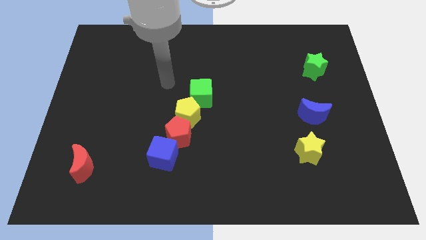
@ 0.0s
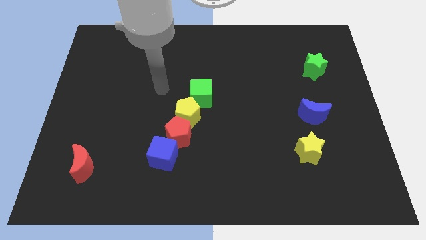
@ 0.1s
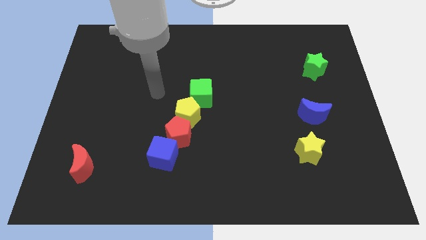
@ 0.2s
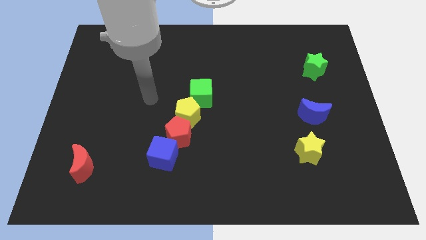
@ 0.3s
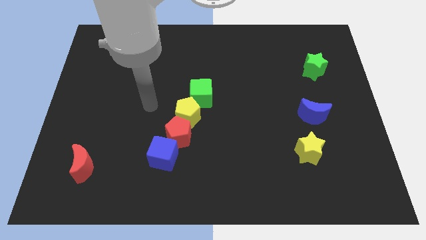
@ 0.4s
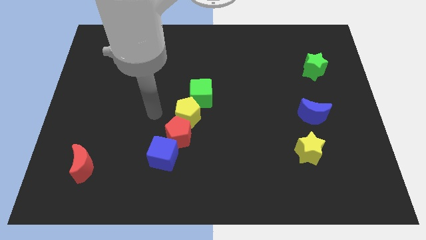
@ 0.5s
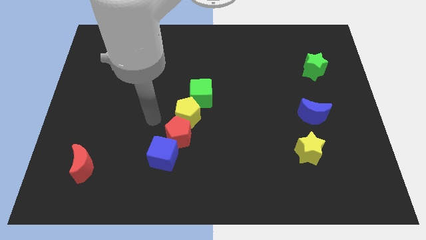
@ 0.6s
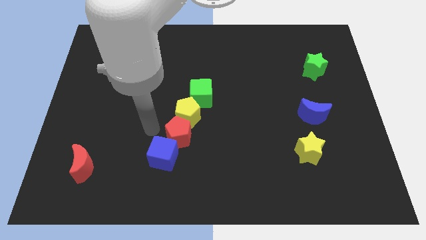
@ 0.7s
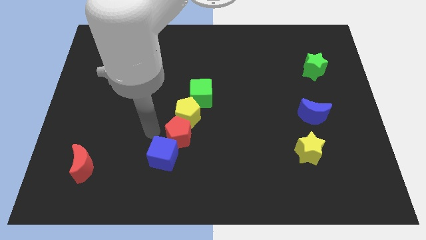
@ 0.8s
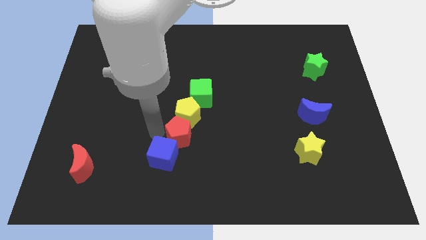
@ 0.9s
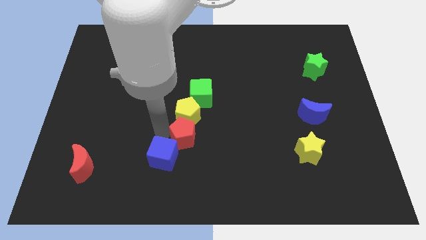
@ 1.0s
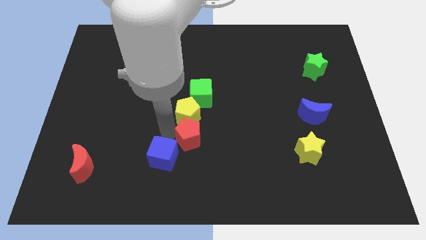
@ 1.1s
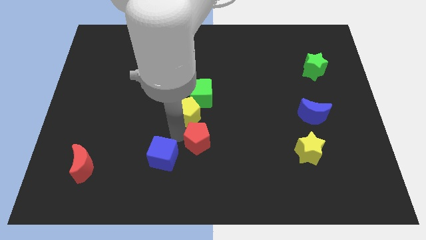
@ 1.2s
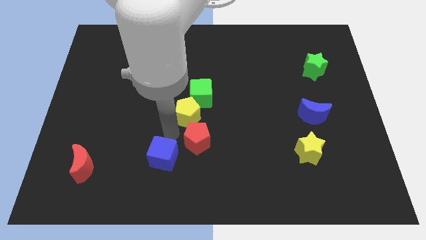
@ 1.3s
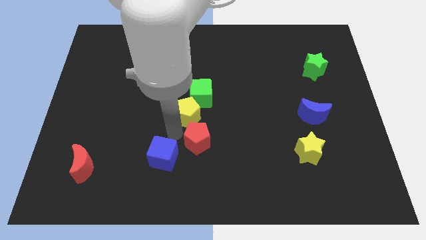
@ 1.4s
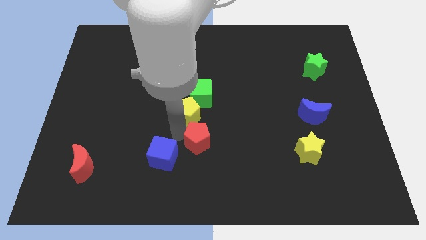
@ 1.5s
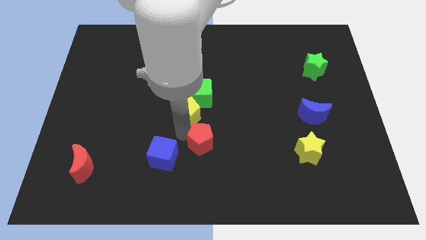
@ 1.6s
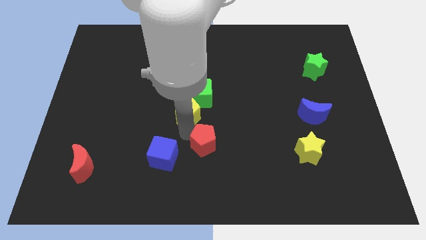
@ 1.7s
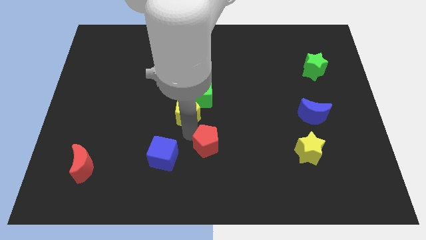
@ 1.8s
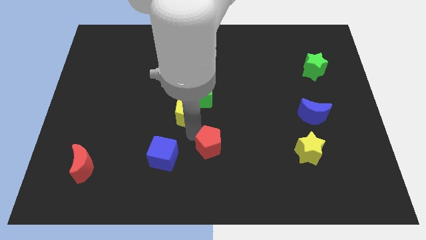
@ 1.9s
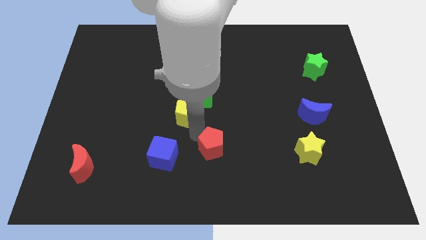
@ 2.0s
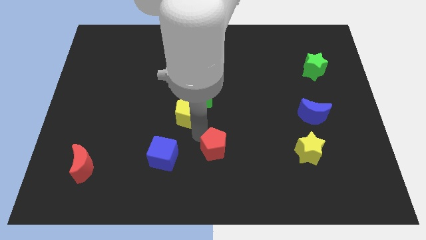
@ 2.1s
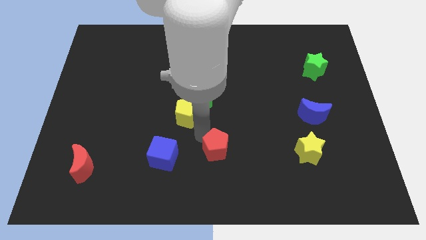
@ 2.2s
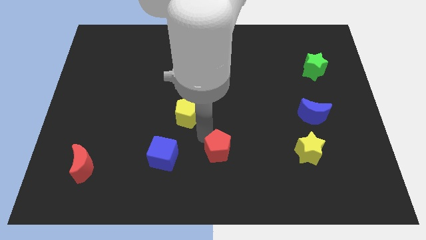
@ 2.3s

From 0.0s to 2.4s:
pull the red pentagon apart from the yellow pentagon and blue cube

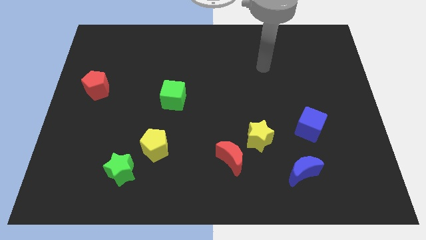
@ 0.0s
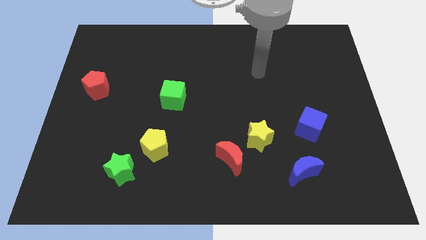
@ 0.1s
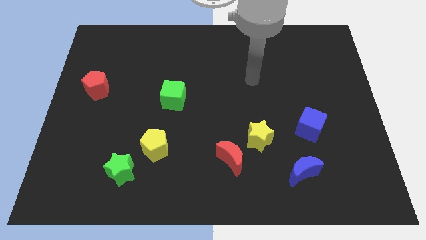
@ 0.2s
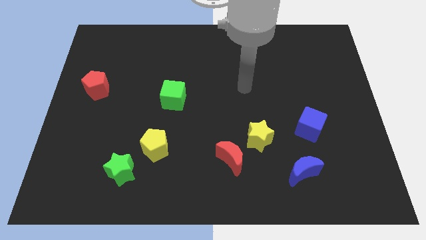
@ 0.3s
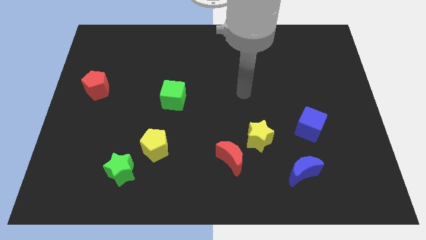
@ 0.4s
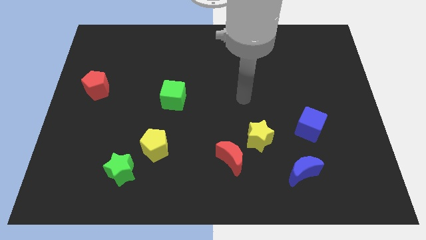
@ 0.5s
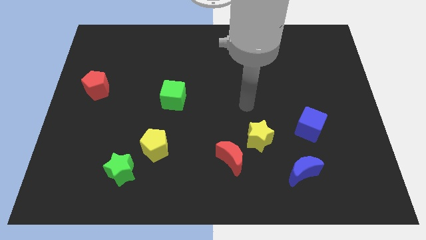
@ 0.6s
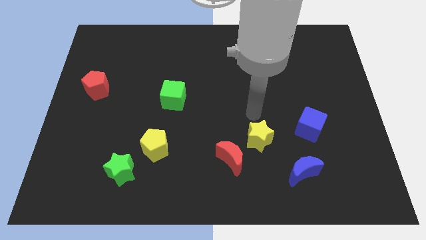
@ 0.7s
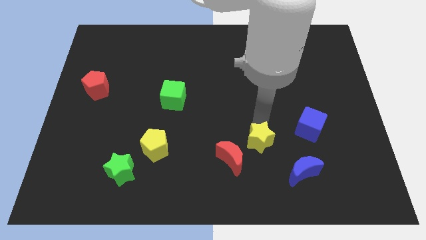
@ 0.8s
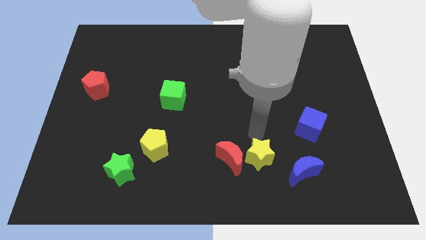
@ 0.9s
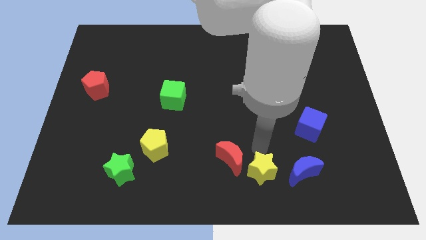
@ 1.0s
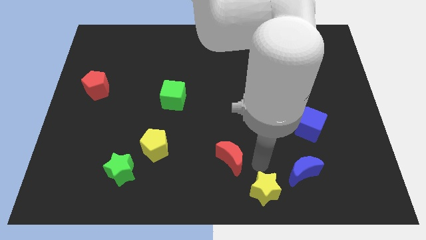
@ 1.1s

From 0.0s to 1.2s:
separate the red moon from the yellow star

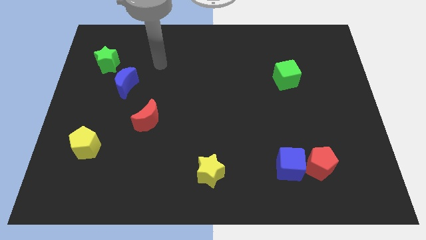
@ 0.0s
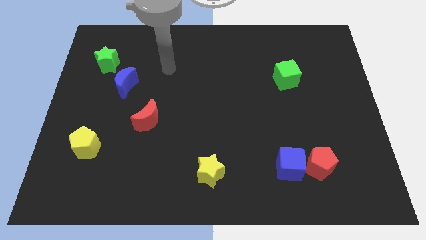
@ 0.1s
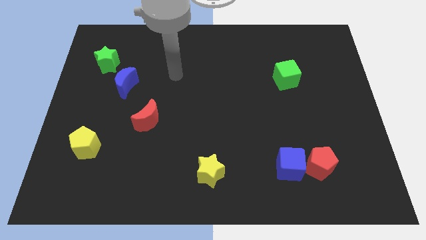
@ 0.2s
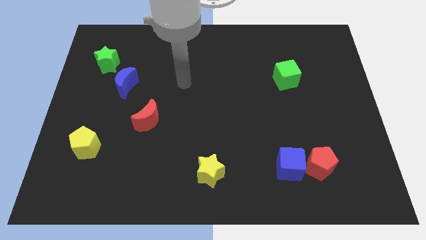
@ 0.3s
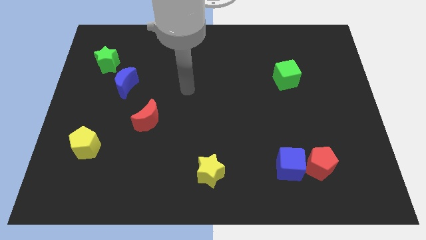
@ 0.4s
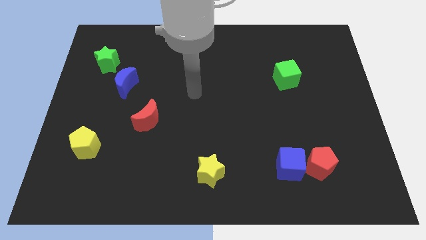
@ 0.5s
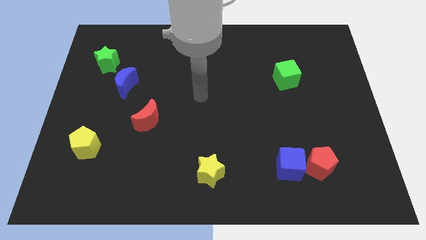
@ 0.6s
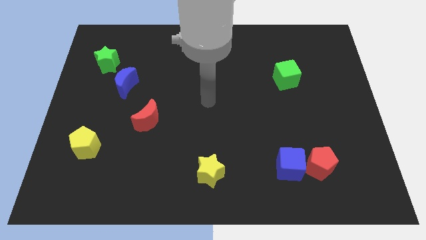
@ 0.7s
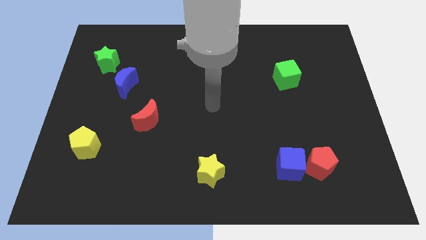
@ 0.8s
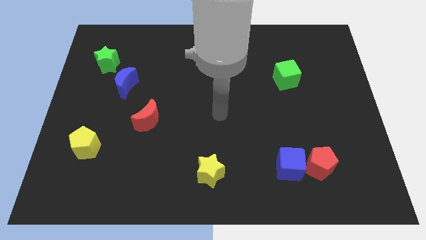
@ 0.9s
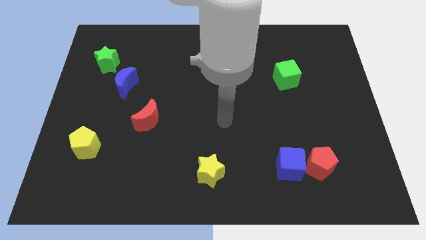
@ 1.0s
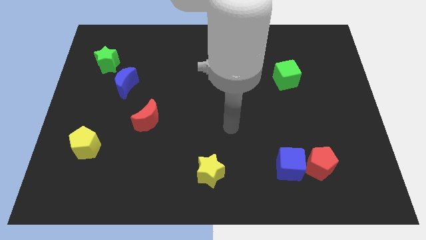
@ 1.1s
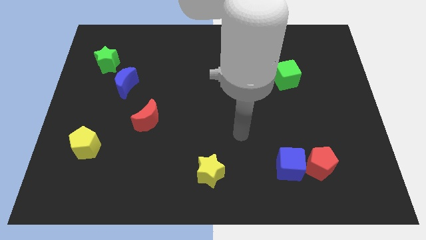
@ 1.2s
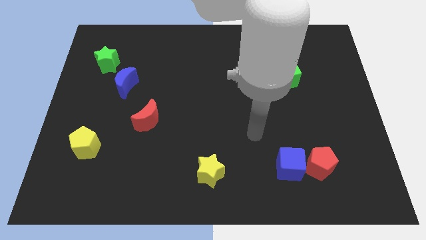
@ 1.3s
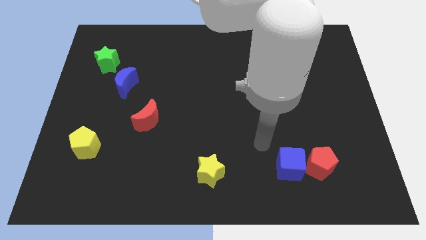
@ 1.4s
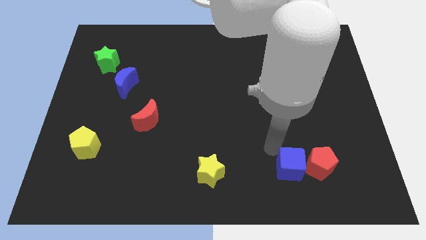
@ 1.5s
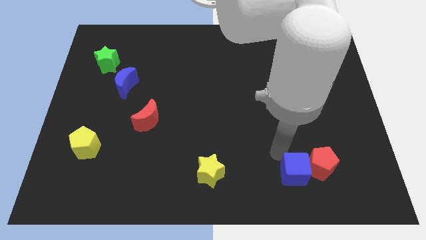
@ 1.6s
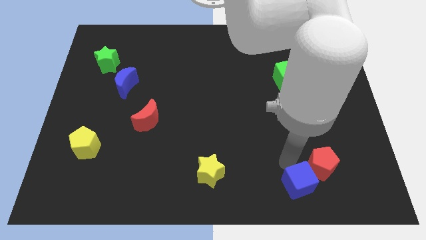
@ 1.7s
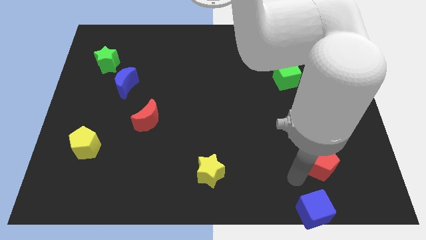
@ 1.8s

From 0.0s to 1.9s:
separate the red pentagon from the blue cube

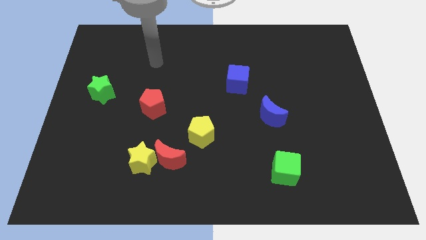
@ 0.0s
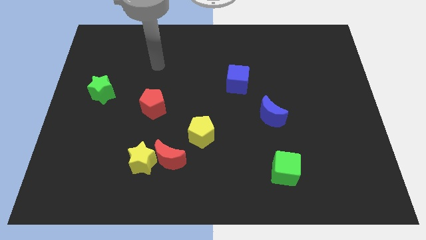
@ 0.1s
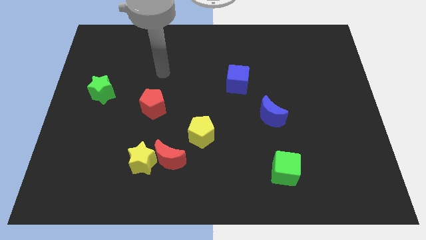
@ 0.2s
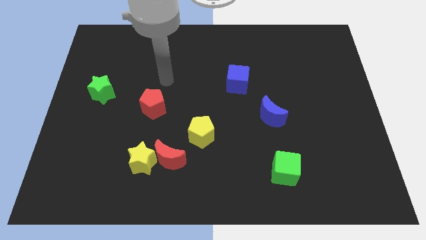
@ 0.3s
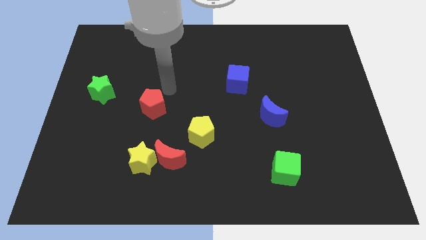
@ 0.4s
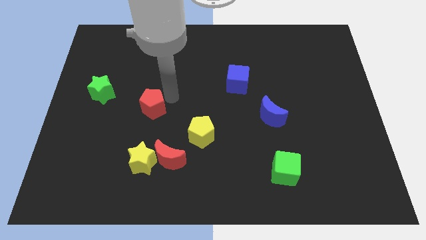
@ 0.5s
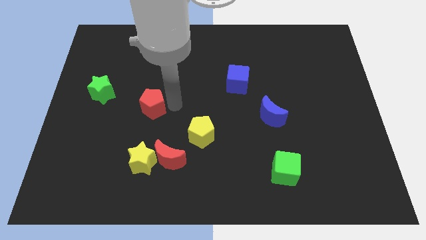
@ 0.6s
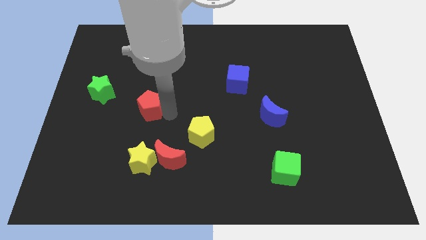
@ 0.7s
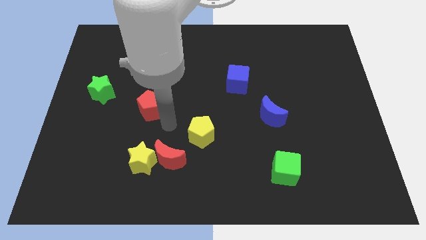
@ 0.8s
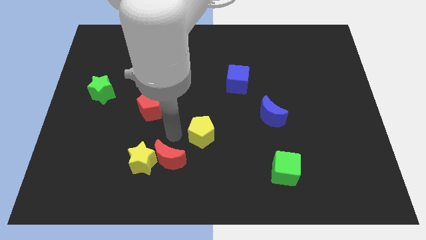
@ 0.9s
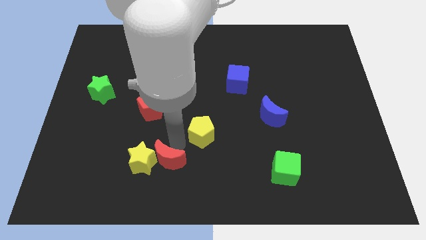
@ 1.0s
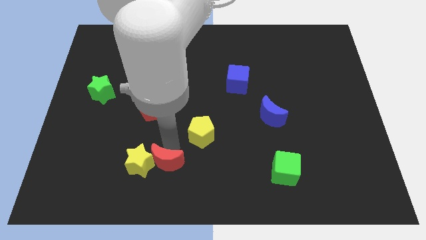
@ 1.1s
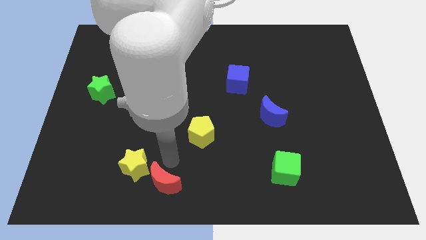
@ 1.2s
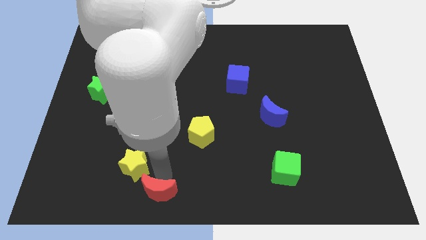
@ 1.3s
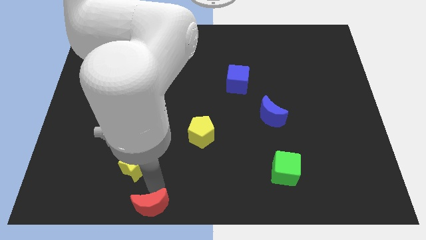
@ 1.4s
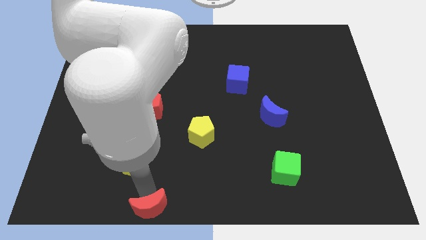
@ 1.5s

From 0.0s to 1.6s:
move the yellow star away from the red moon

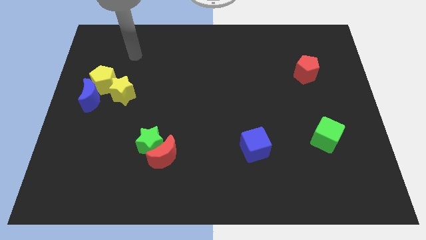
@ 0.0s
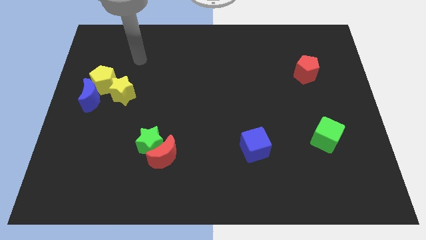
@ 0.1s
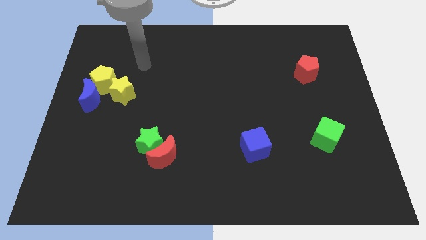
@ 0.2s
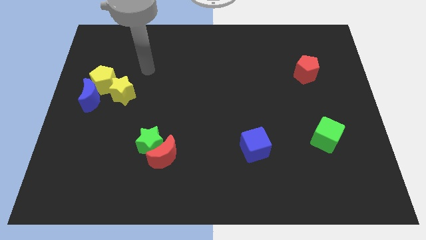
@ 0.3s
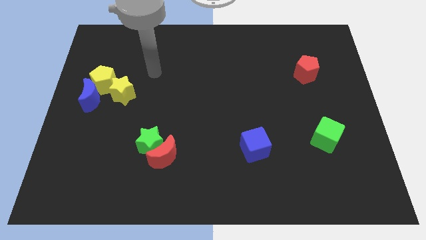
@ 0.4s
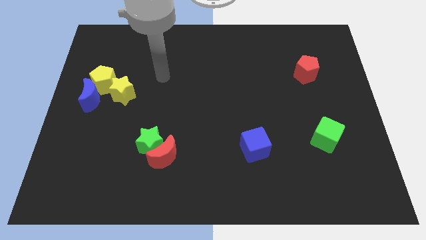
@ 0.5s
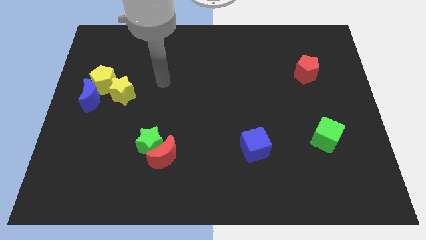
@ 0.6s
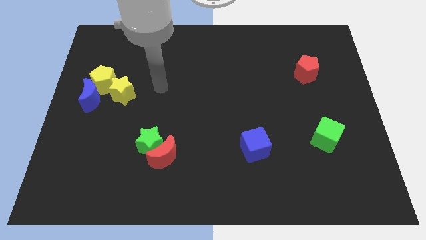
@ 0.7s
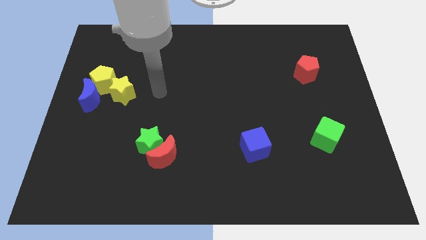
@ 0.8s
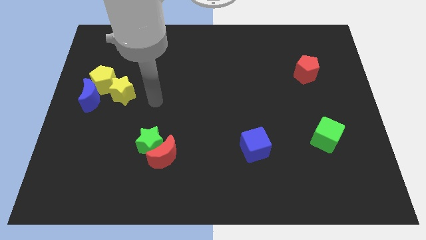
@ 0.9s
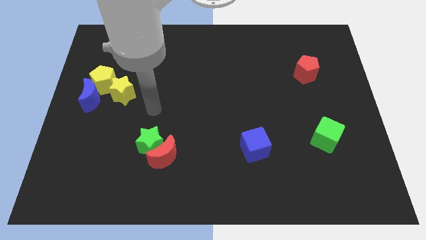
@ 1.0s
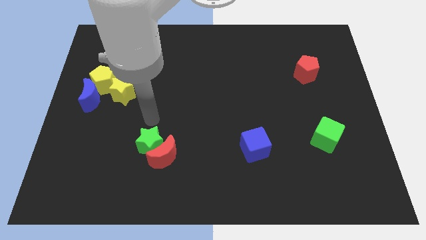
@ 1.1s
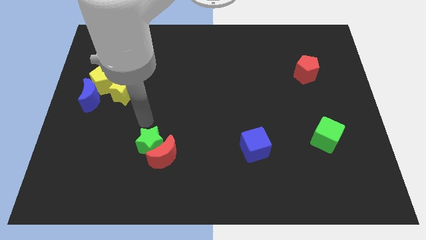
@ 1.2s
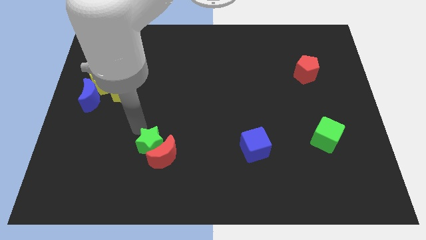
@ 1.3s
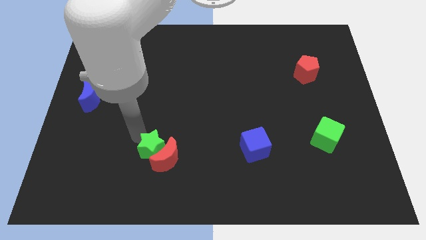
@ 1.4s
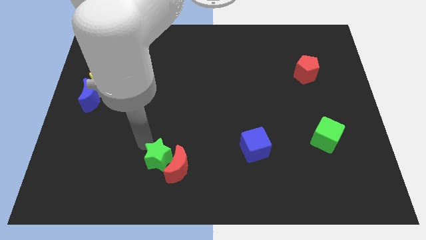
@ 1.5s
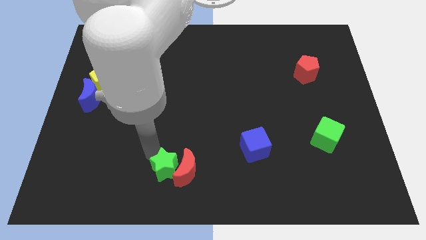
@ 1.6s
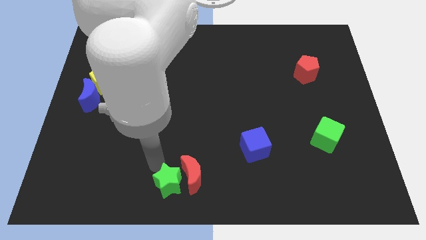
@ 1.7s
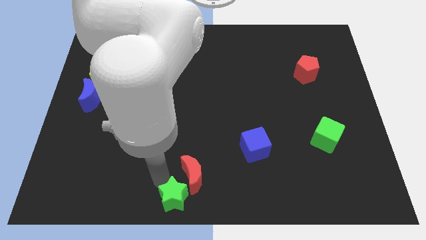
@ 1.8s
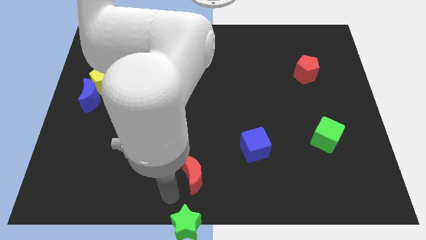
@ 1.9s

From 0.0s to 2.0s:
separate the red moon from the green star

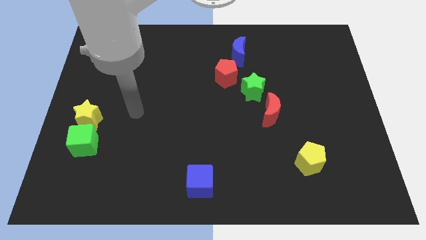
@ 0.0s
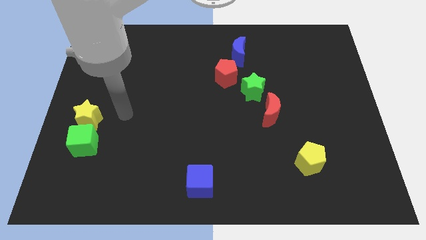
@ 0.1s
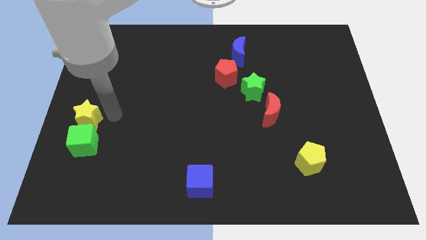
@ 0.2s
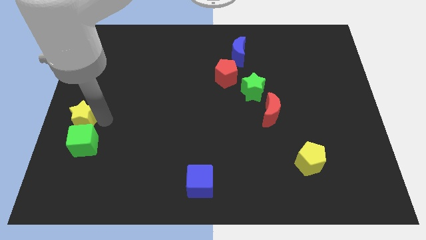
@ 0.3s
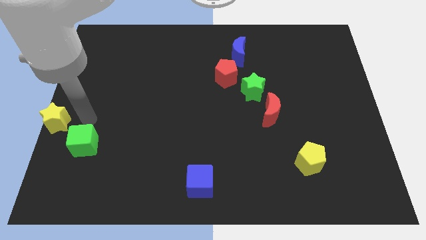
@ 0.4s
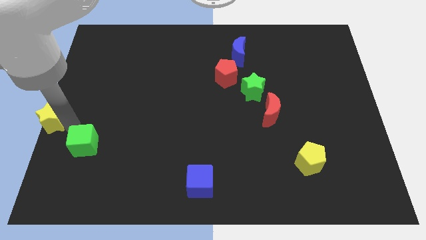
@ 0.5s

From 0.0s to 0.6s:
pull the green cube apart from the yellow star
